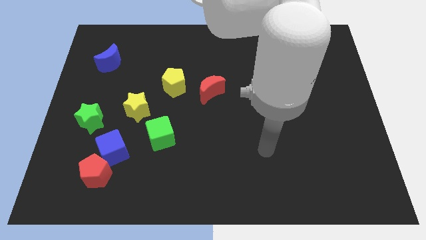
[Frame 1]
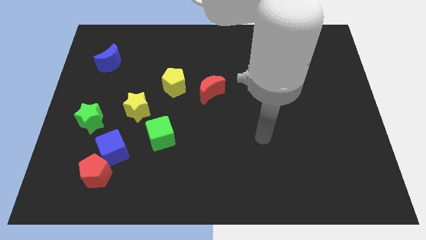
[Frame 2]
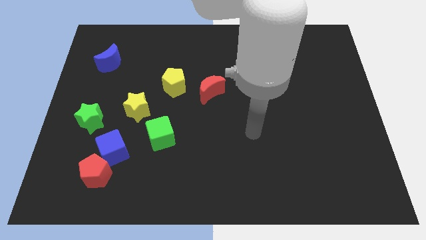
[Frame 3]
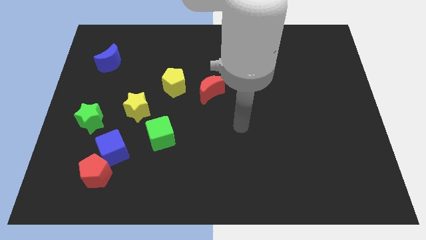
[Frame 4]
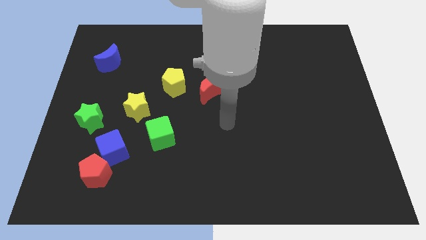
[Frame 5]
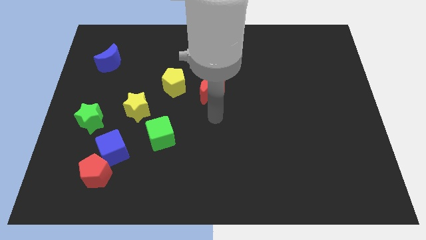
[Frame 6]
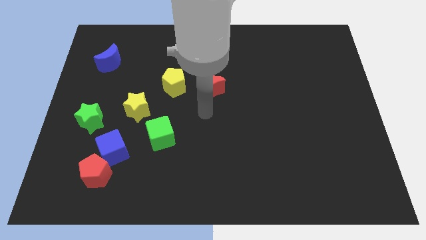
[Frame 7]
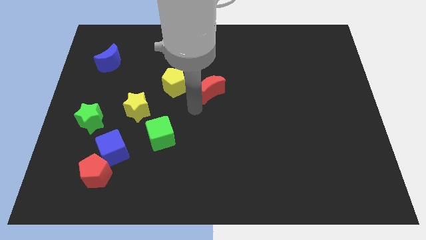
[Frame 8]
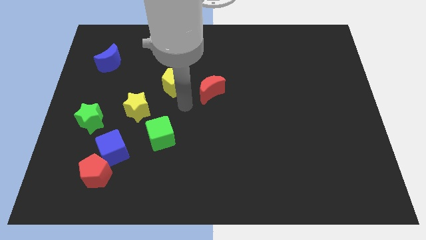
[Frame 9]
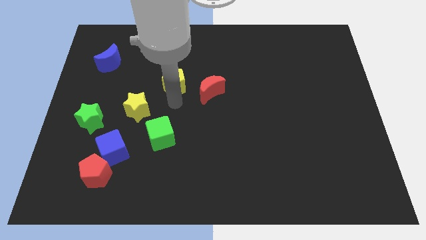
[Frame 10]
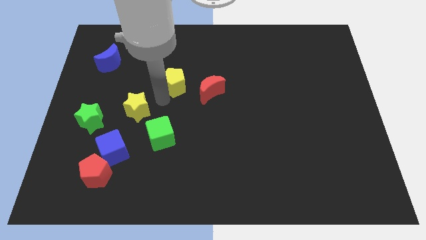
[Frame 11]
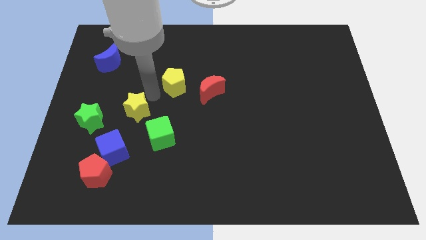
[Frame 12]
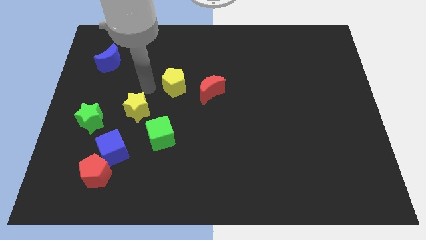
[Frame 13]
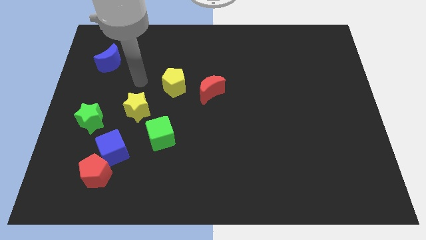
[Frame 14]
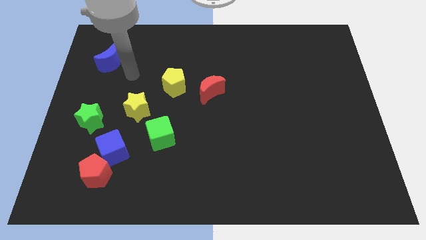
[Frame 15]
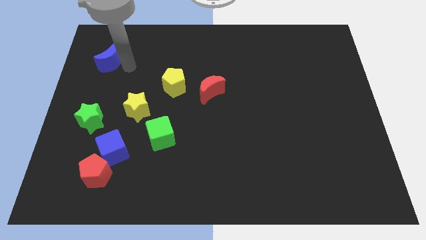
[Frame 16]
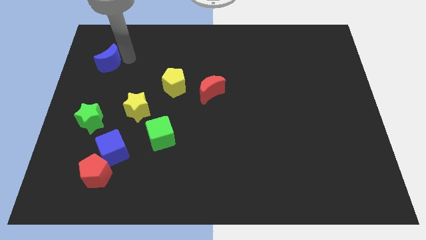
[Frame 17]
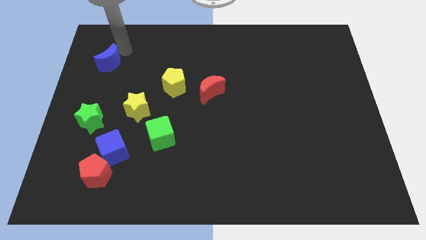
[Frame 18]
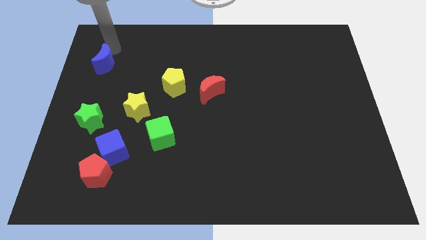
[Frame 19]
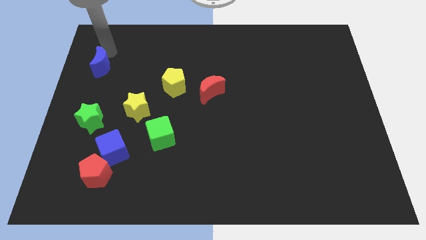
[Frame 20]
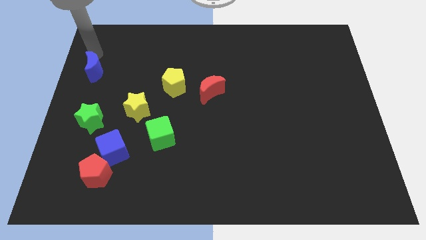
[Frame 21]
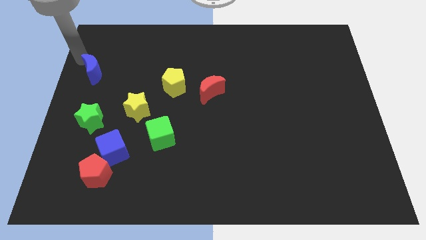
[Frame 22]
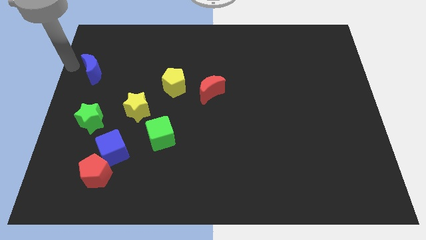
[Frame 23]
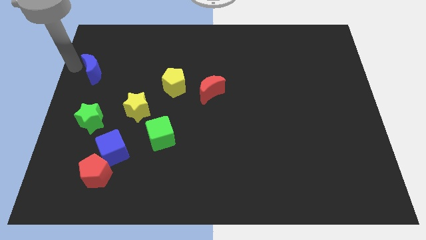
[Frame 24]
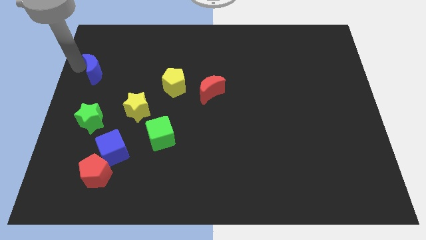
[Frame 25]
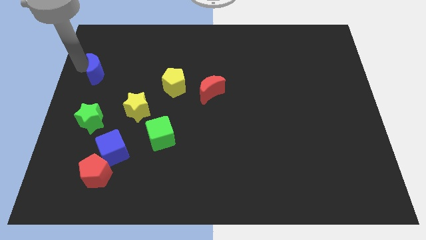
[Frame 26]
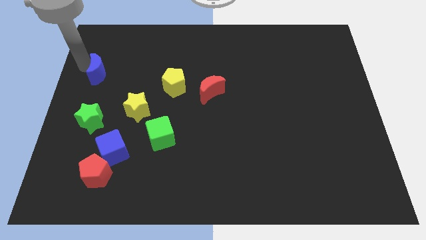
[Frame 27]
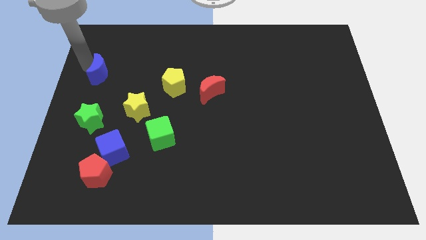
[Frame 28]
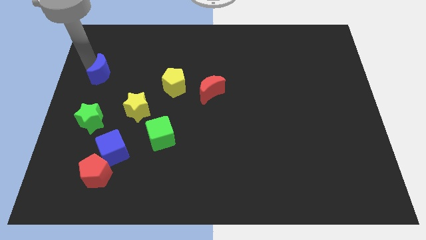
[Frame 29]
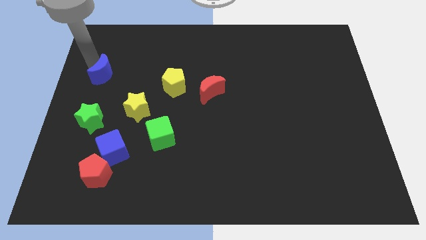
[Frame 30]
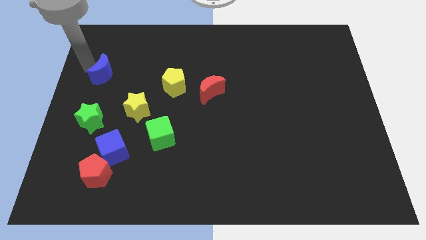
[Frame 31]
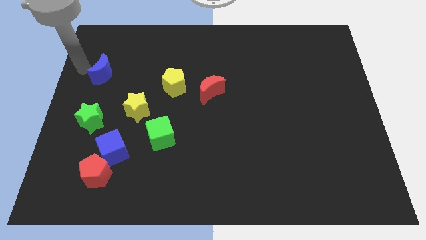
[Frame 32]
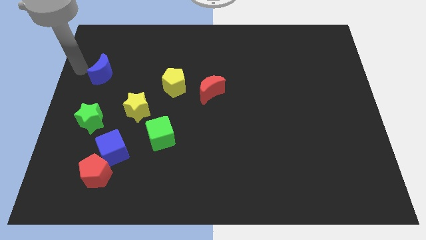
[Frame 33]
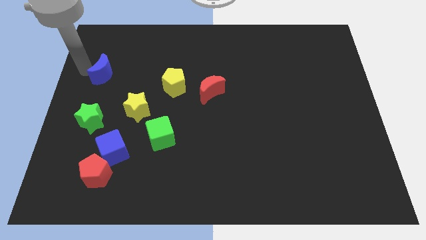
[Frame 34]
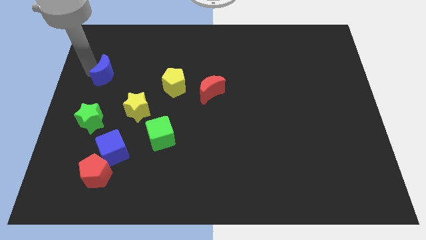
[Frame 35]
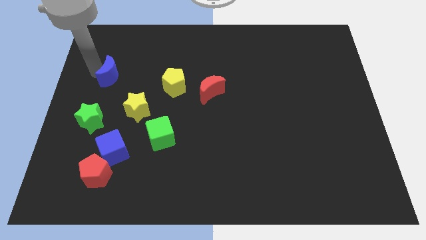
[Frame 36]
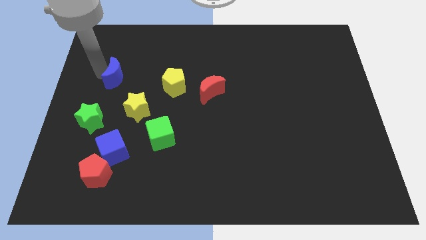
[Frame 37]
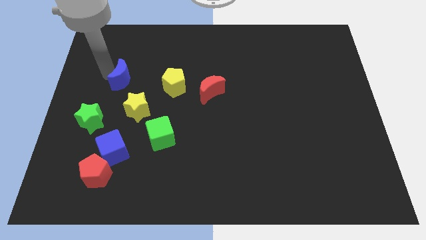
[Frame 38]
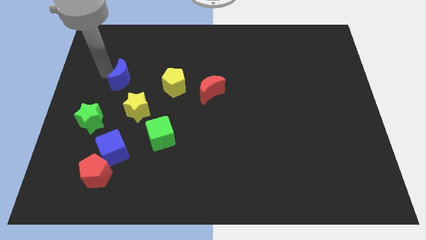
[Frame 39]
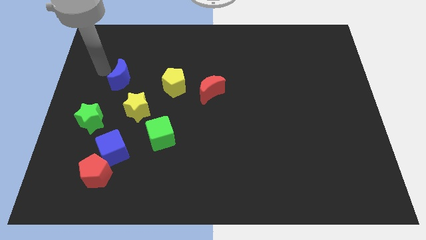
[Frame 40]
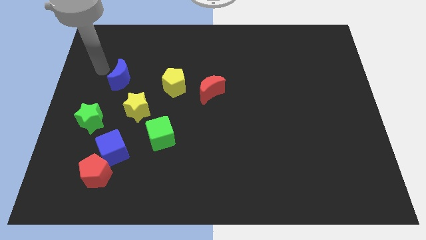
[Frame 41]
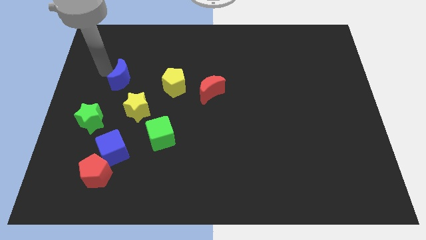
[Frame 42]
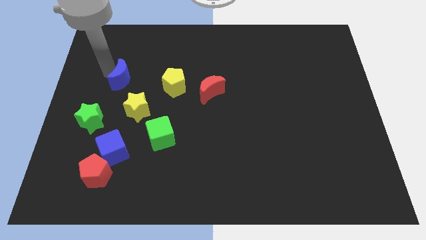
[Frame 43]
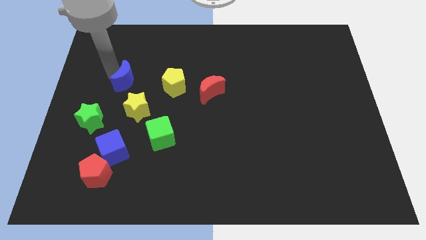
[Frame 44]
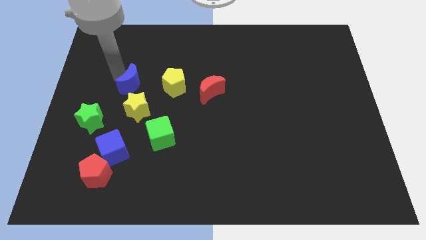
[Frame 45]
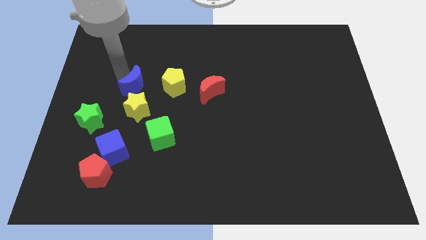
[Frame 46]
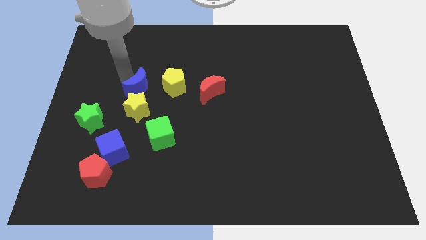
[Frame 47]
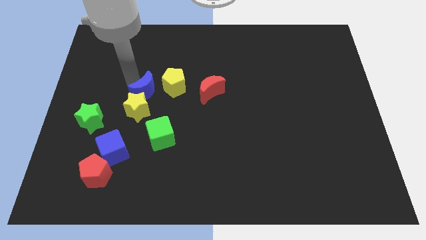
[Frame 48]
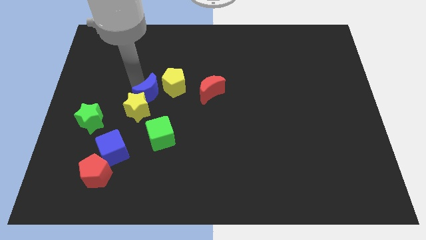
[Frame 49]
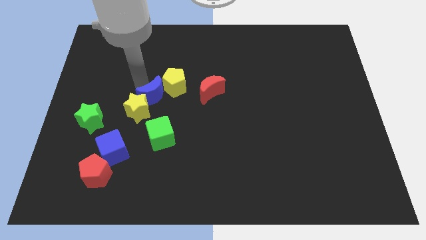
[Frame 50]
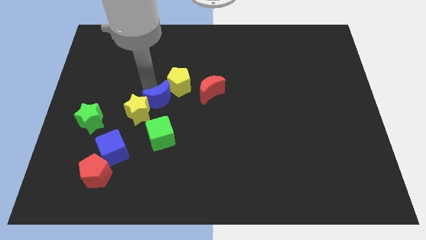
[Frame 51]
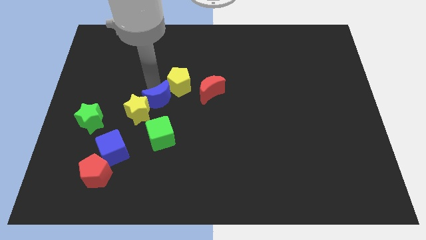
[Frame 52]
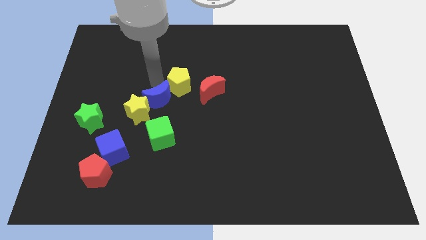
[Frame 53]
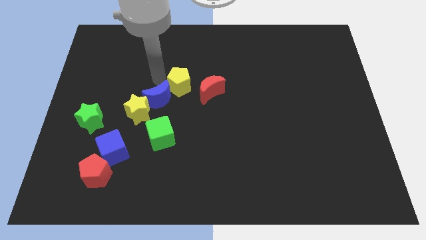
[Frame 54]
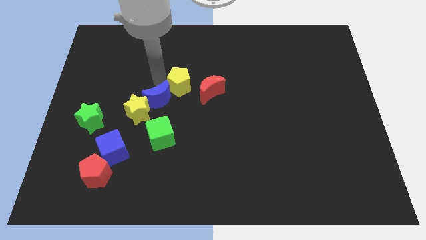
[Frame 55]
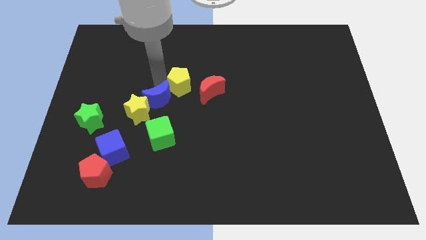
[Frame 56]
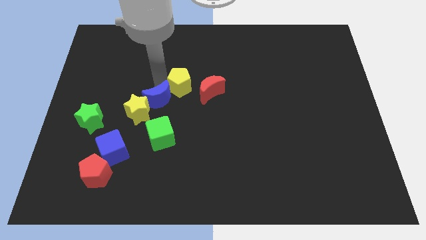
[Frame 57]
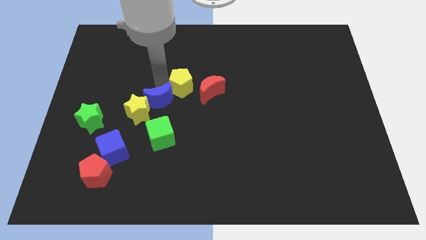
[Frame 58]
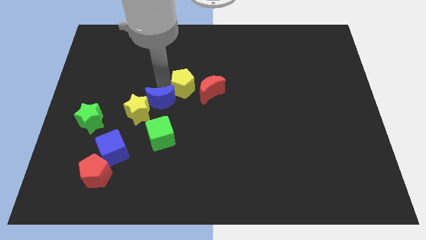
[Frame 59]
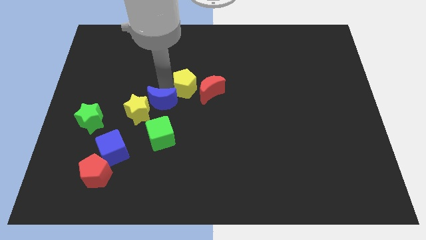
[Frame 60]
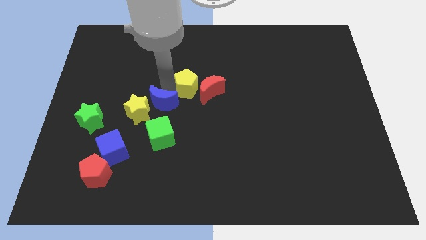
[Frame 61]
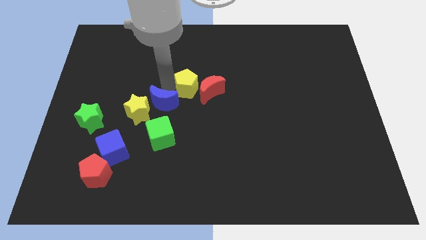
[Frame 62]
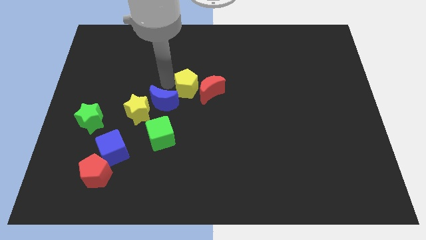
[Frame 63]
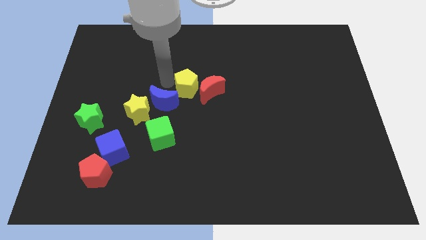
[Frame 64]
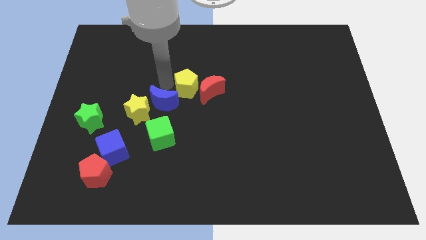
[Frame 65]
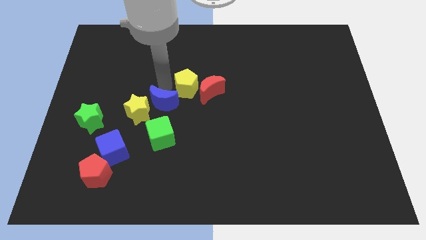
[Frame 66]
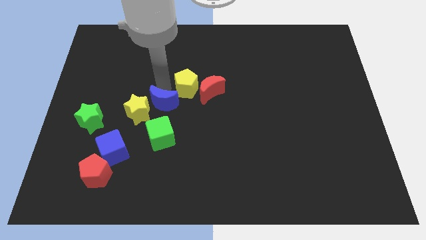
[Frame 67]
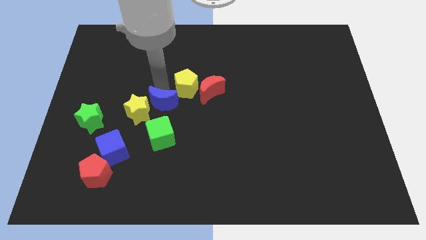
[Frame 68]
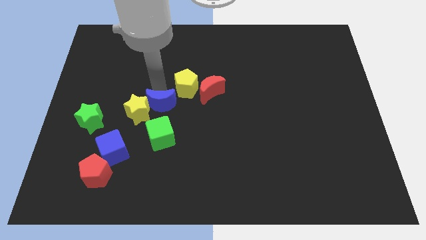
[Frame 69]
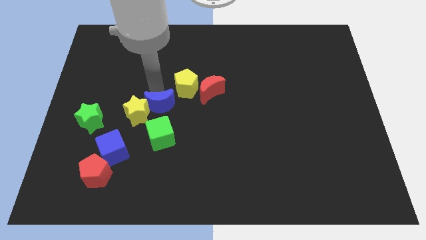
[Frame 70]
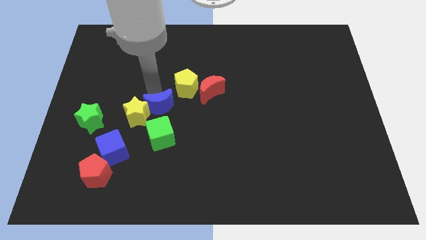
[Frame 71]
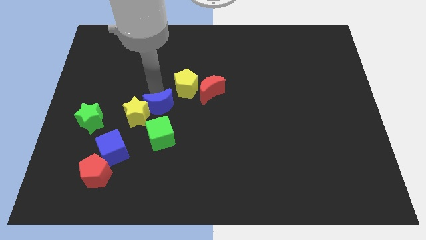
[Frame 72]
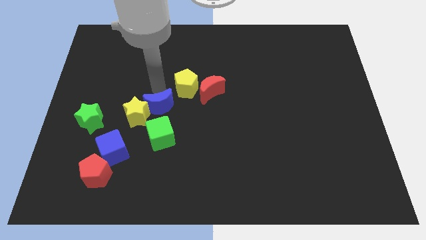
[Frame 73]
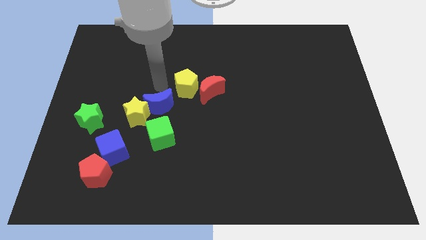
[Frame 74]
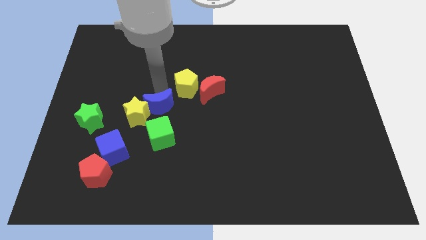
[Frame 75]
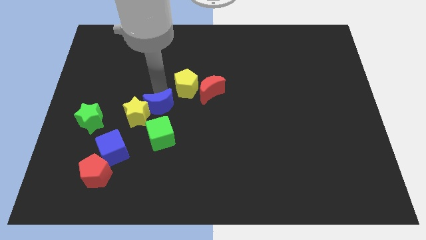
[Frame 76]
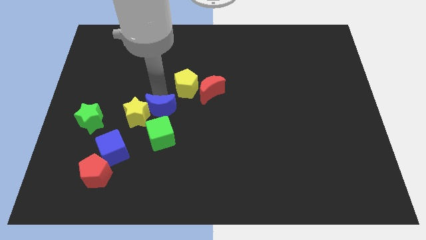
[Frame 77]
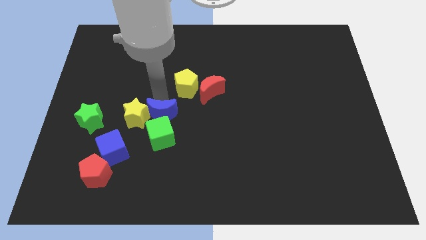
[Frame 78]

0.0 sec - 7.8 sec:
push the blue moon to the green cube

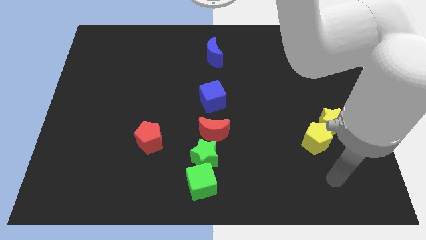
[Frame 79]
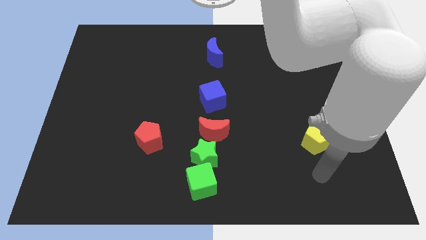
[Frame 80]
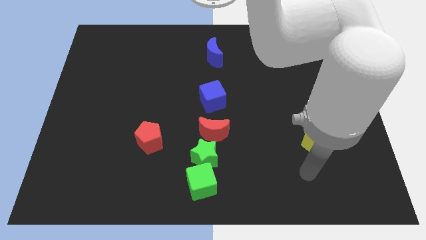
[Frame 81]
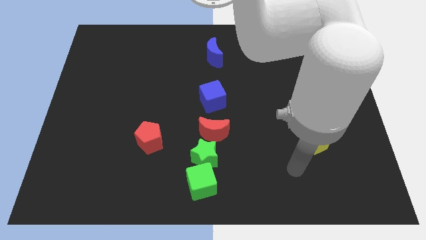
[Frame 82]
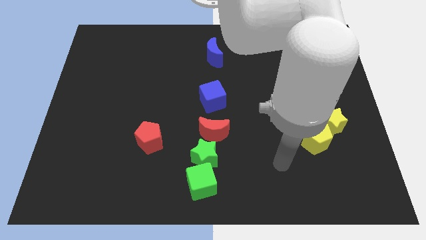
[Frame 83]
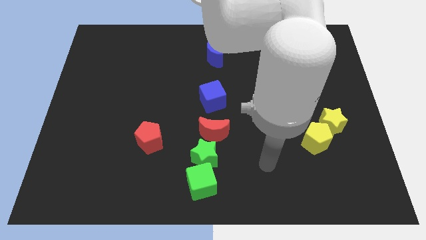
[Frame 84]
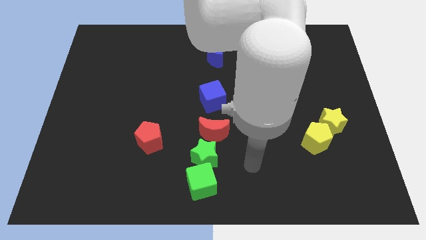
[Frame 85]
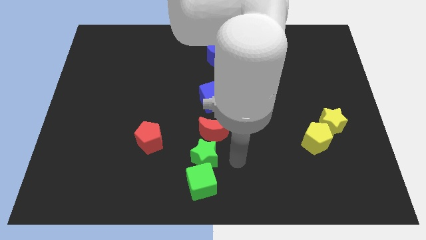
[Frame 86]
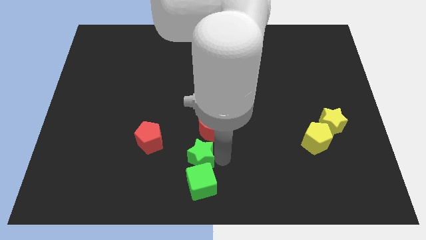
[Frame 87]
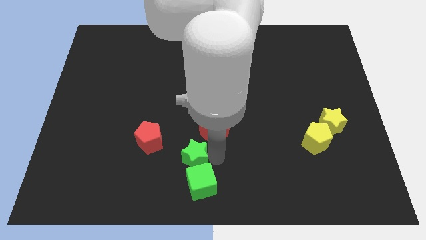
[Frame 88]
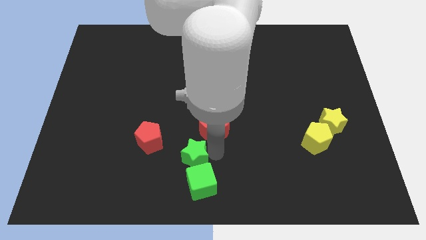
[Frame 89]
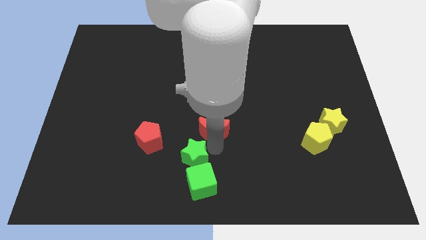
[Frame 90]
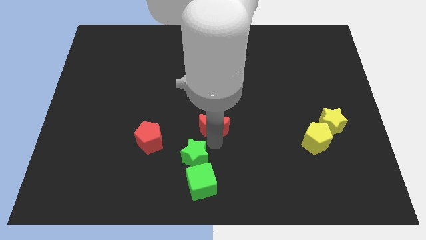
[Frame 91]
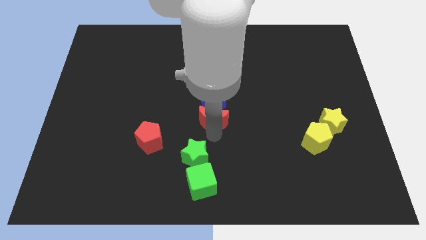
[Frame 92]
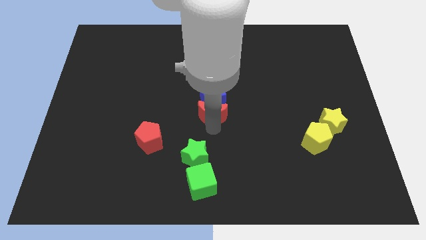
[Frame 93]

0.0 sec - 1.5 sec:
move the red moon to the blue cube
